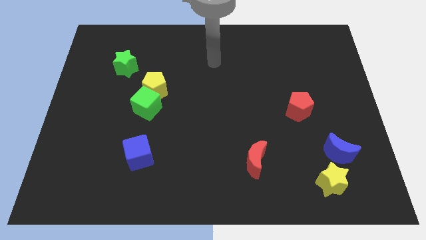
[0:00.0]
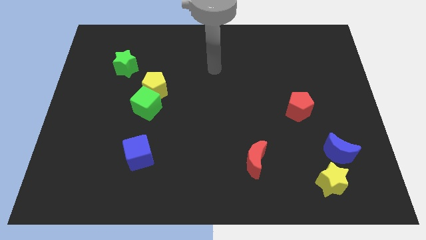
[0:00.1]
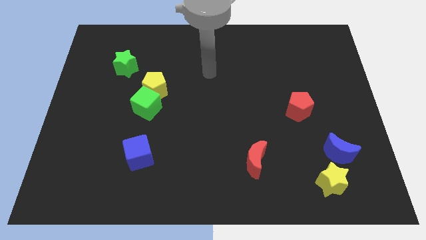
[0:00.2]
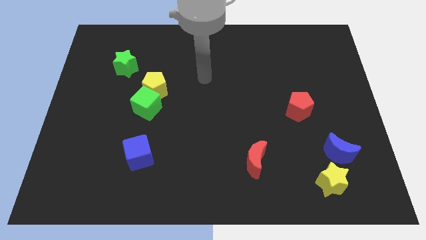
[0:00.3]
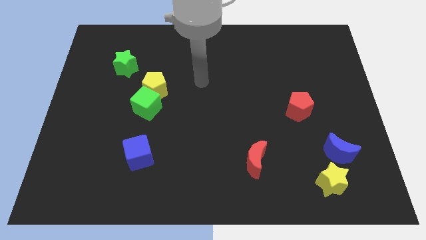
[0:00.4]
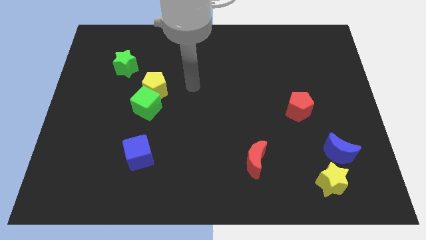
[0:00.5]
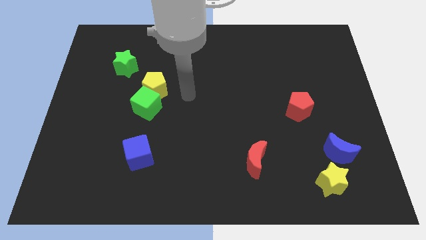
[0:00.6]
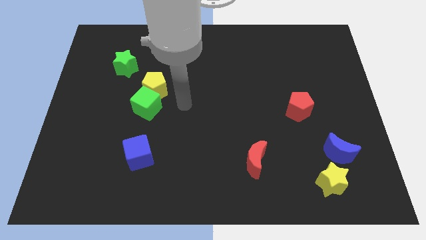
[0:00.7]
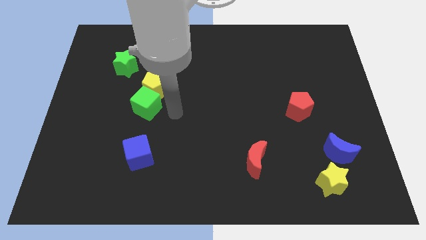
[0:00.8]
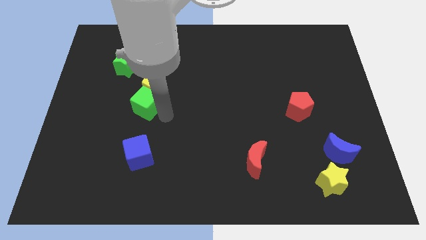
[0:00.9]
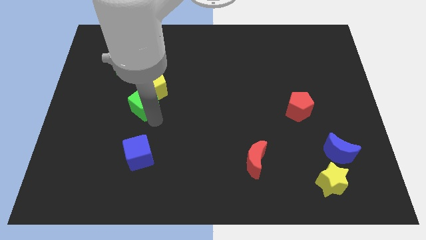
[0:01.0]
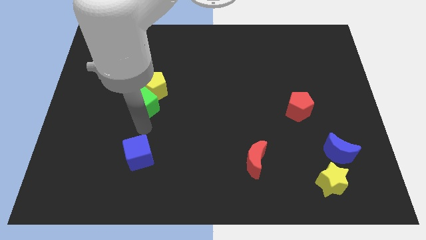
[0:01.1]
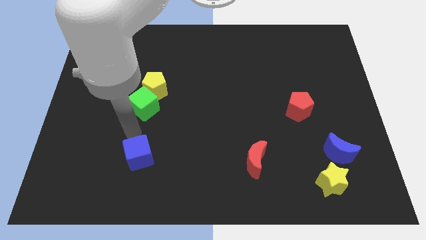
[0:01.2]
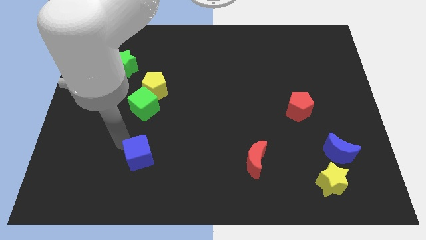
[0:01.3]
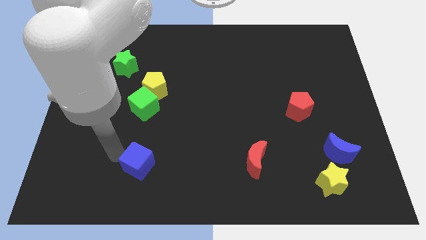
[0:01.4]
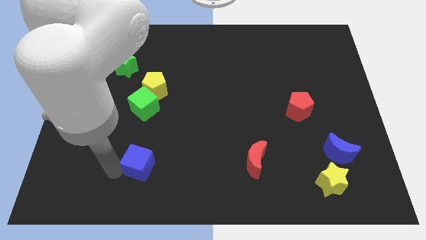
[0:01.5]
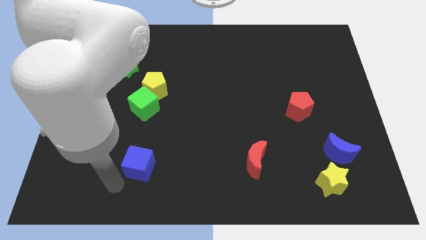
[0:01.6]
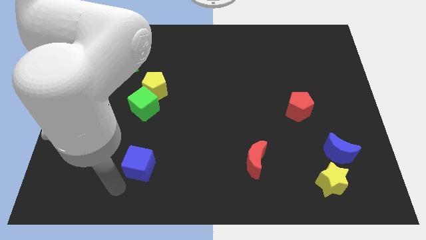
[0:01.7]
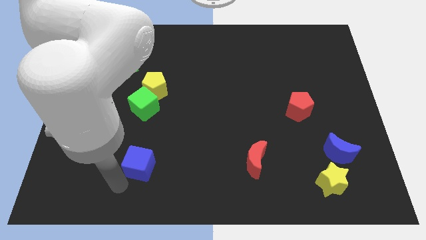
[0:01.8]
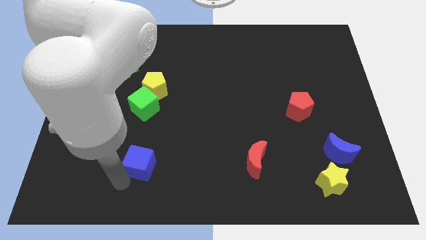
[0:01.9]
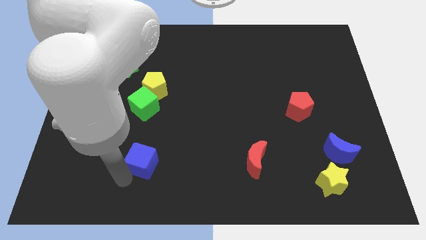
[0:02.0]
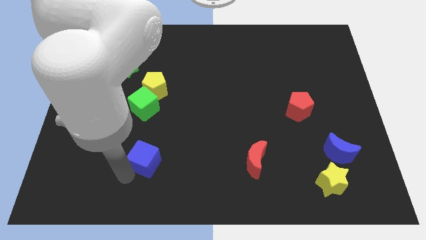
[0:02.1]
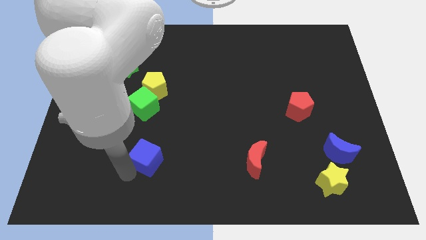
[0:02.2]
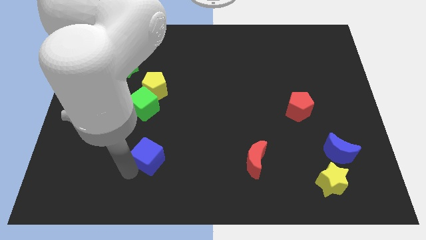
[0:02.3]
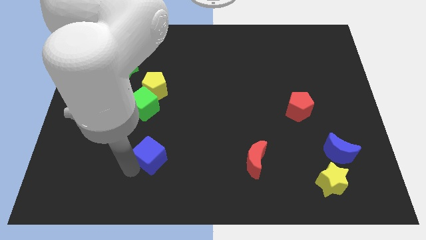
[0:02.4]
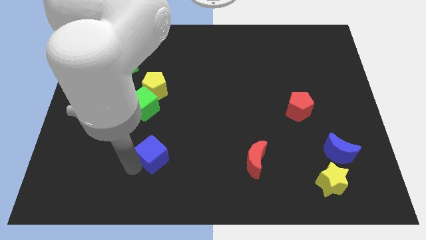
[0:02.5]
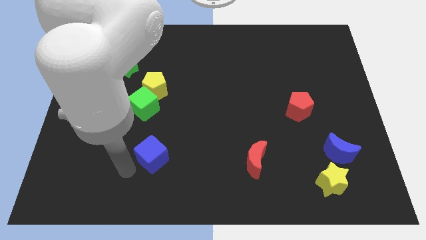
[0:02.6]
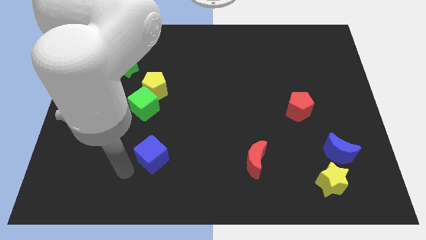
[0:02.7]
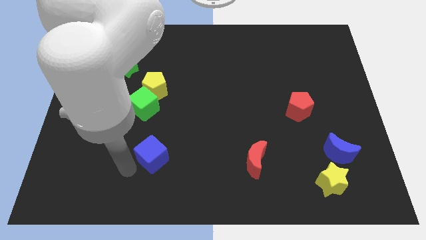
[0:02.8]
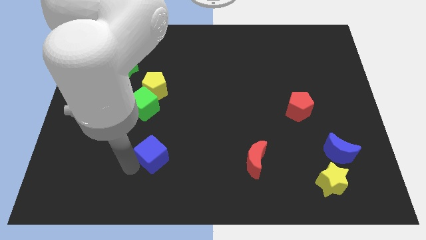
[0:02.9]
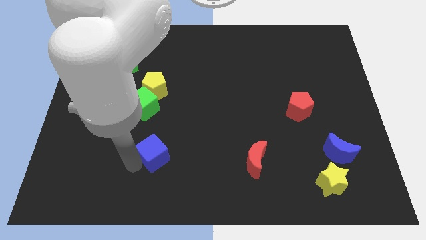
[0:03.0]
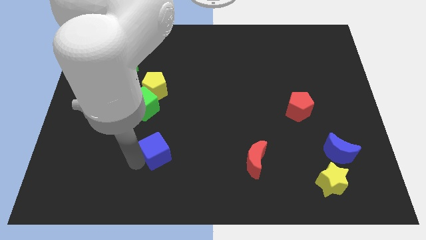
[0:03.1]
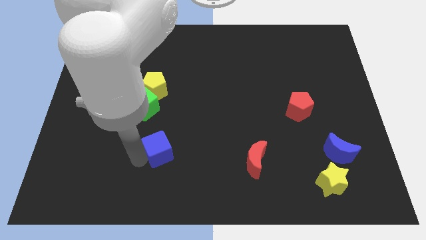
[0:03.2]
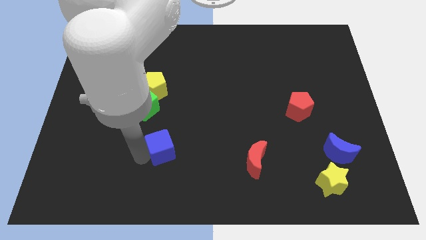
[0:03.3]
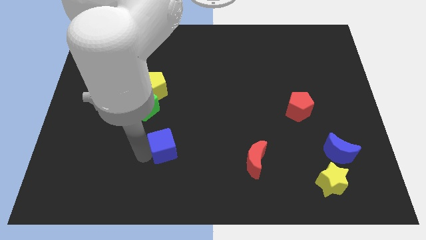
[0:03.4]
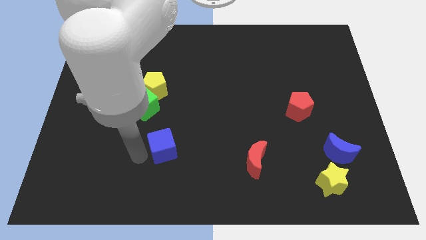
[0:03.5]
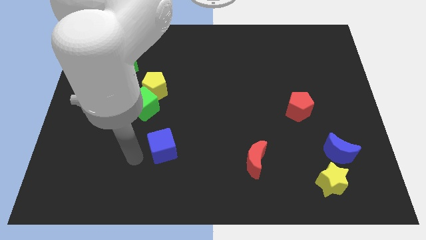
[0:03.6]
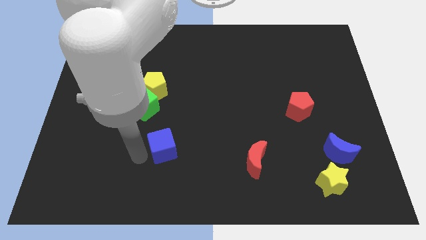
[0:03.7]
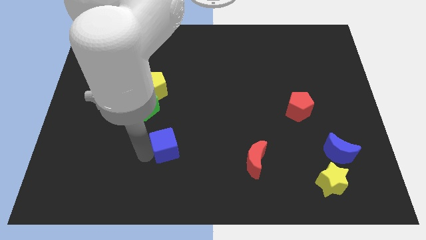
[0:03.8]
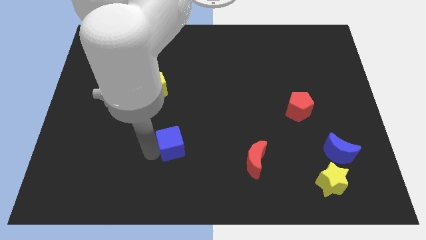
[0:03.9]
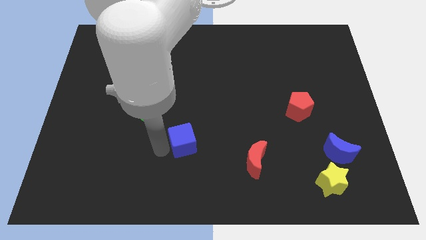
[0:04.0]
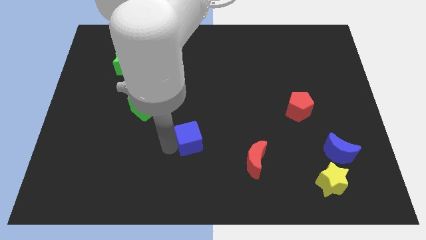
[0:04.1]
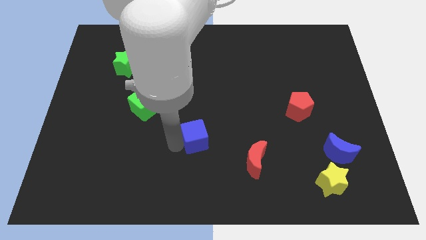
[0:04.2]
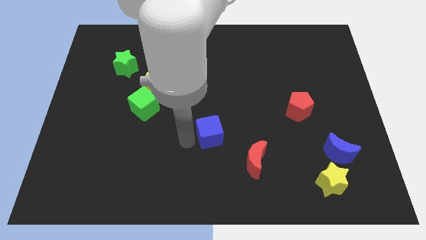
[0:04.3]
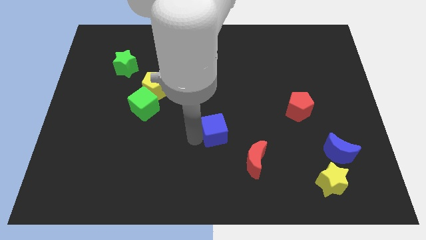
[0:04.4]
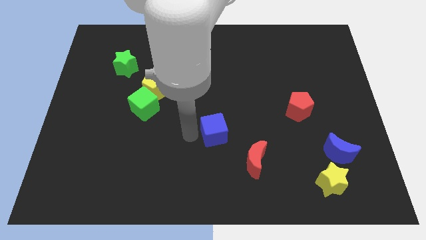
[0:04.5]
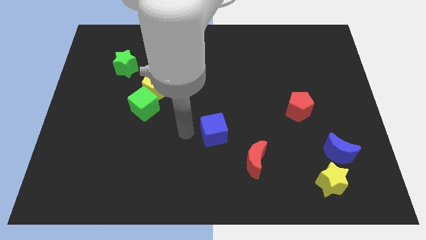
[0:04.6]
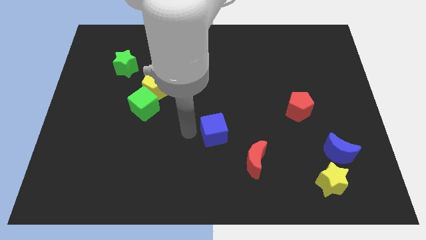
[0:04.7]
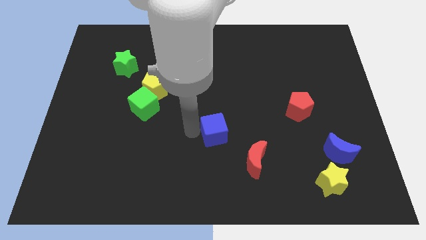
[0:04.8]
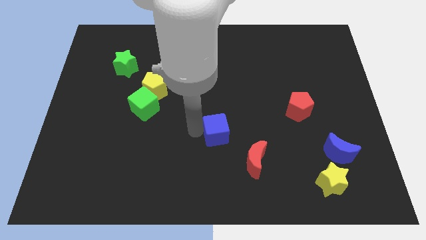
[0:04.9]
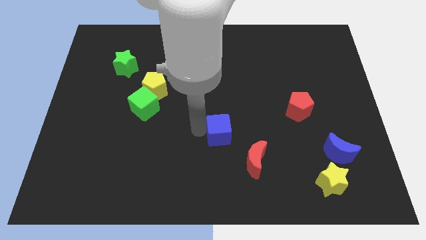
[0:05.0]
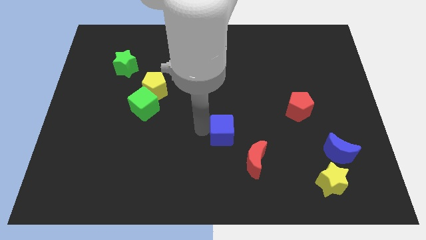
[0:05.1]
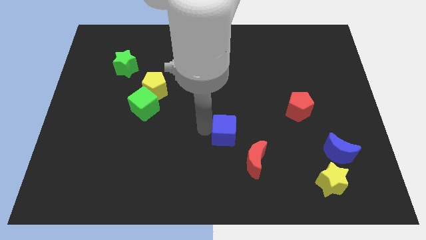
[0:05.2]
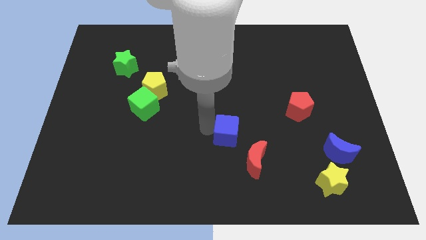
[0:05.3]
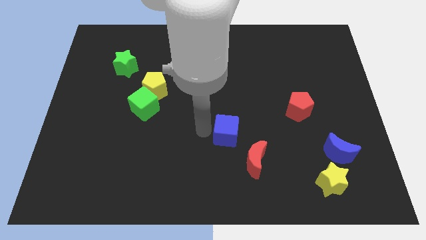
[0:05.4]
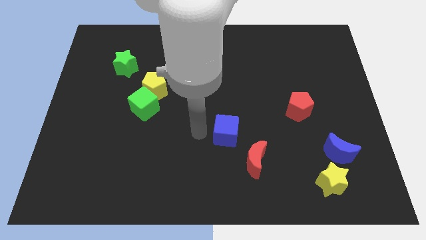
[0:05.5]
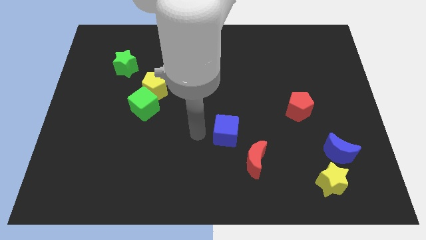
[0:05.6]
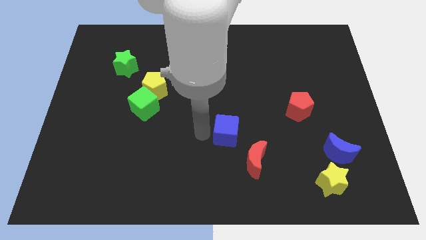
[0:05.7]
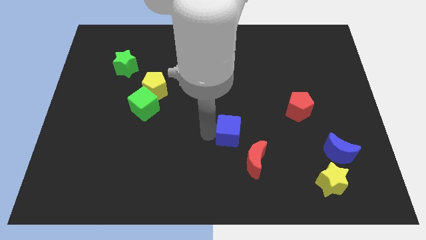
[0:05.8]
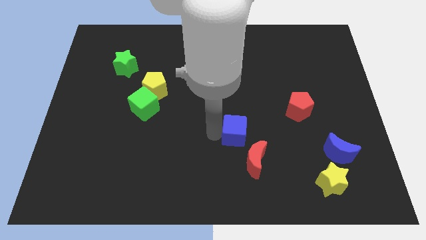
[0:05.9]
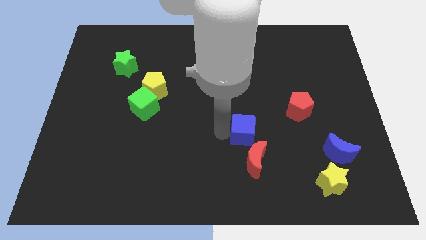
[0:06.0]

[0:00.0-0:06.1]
move the blue cube to the right

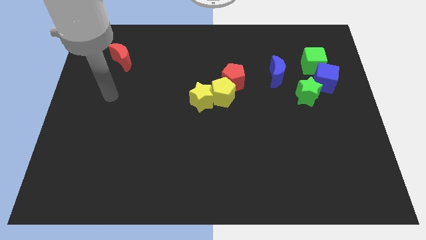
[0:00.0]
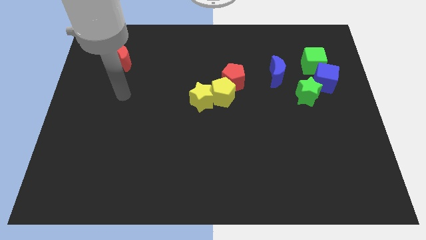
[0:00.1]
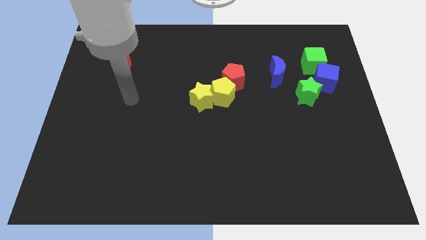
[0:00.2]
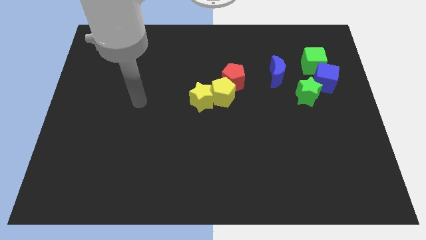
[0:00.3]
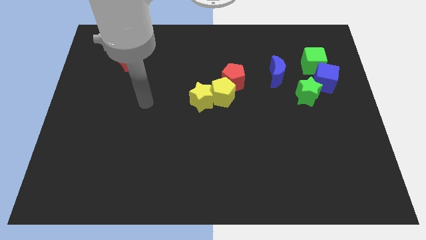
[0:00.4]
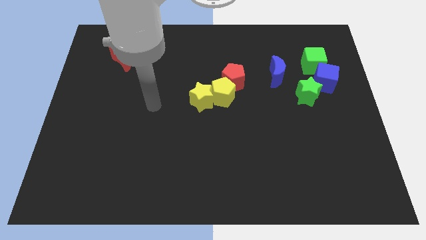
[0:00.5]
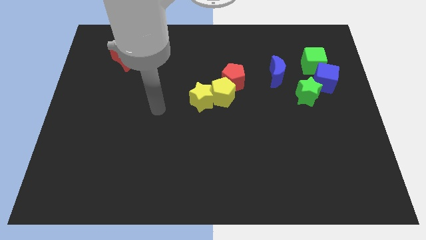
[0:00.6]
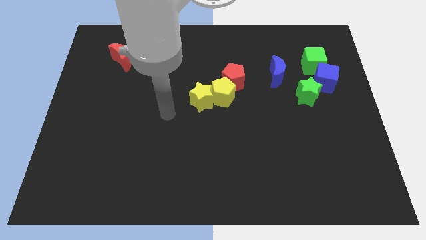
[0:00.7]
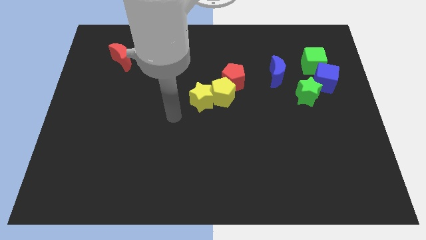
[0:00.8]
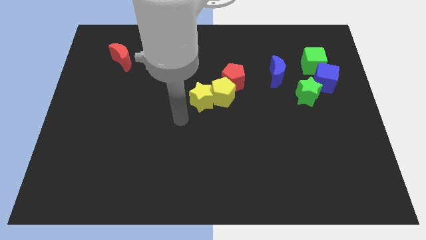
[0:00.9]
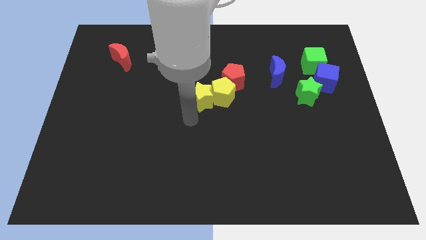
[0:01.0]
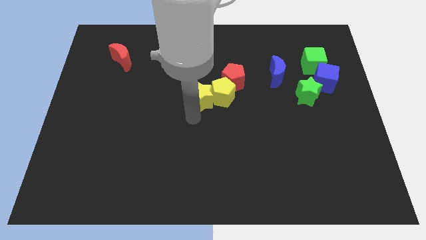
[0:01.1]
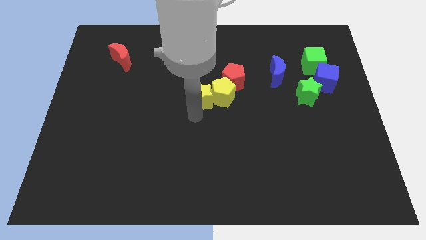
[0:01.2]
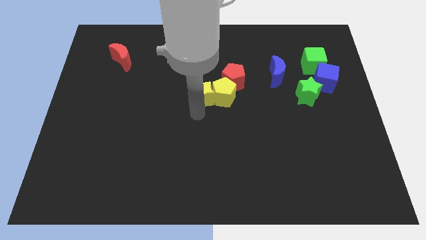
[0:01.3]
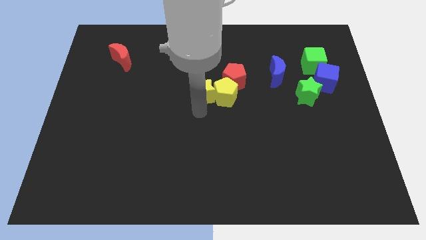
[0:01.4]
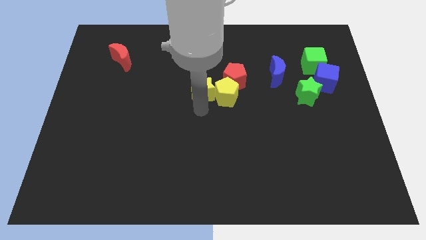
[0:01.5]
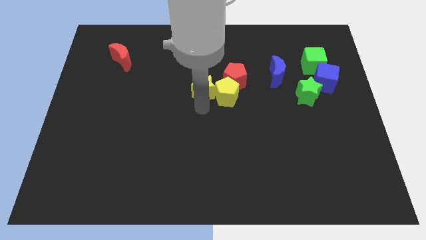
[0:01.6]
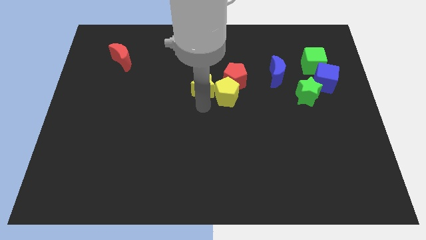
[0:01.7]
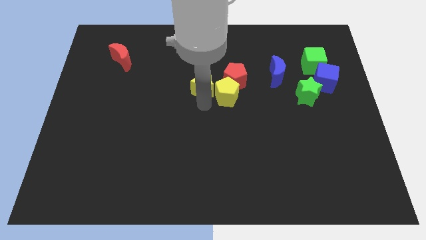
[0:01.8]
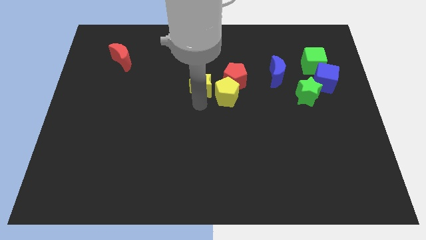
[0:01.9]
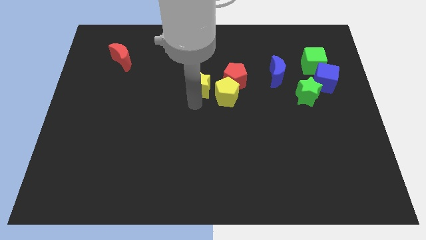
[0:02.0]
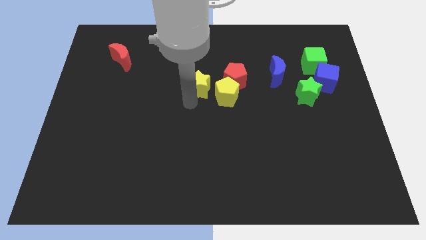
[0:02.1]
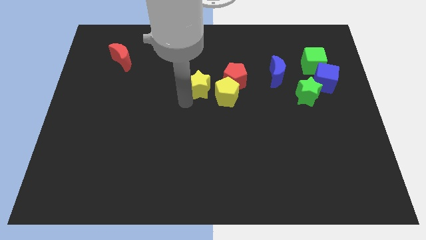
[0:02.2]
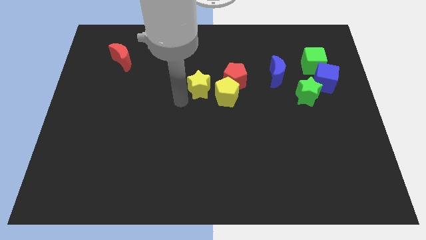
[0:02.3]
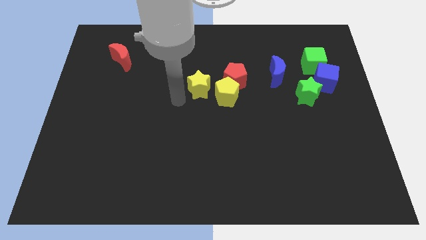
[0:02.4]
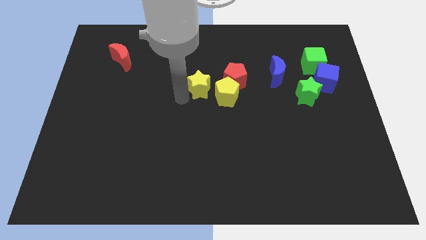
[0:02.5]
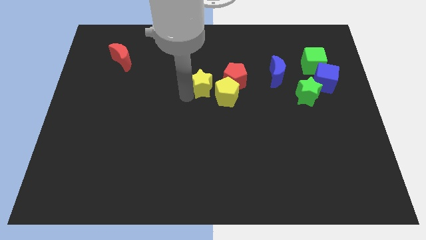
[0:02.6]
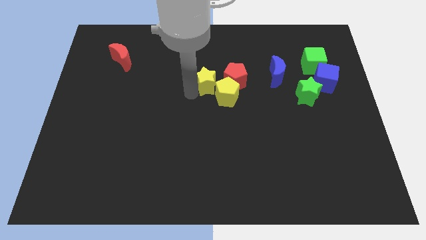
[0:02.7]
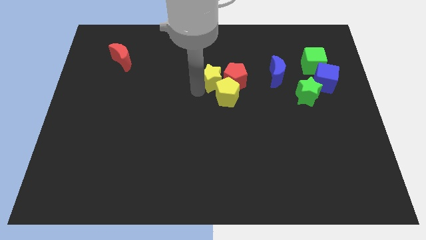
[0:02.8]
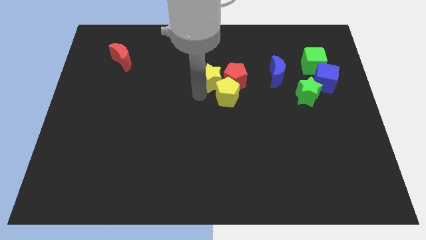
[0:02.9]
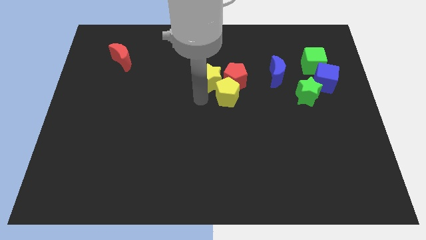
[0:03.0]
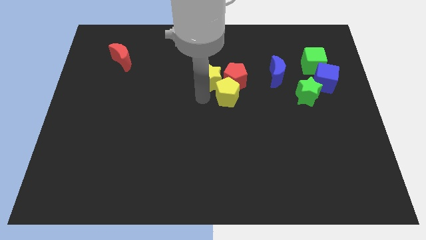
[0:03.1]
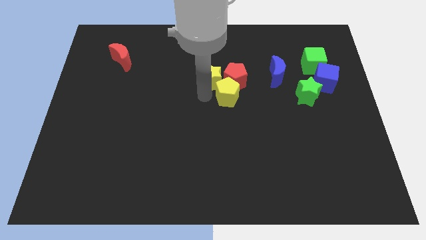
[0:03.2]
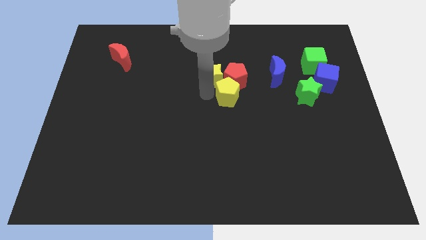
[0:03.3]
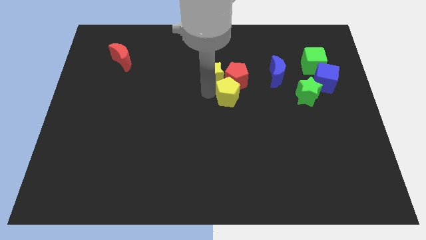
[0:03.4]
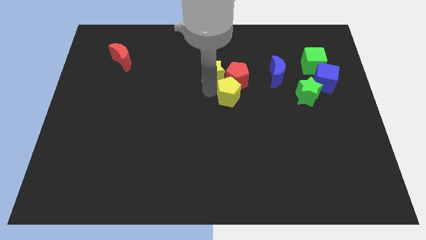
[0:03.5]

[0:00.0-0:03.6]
slide the yellow star diagonally upwards and right a little bit
